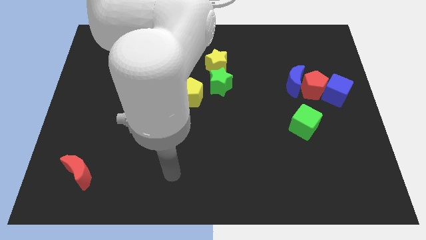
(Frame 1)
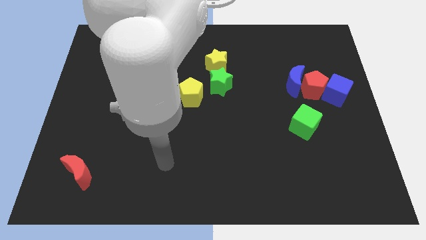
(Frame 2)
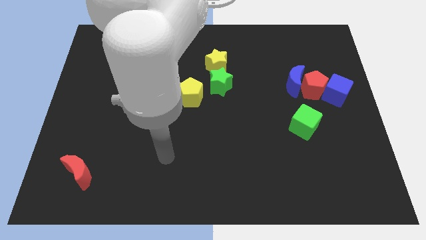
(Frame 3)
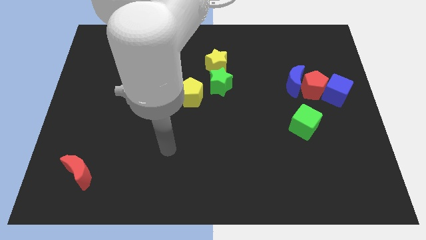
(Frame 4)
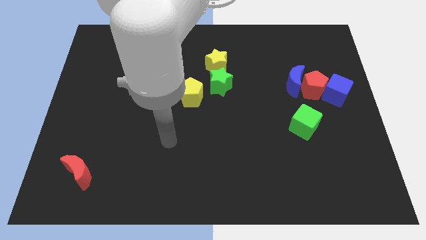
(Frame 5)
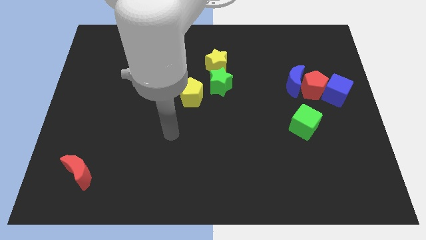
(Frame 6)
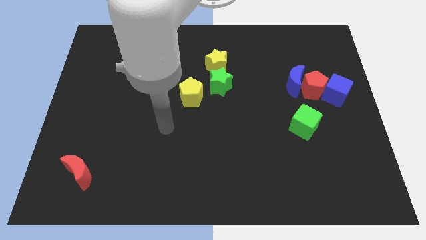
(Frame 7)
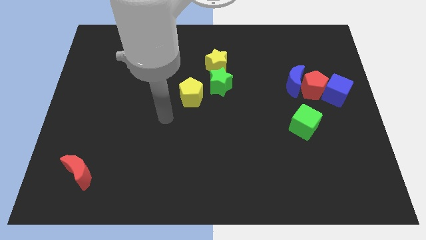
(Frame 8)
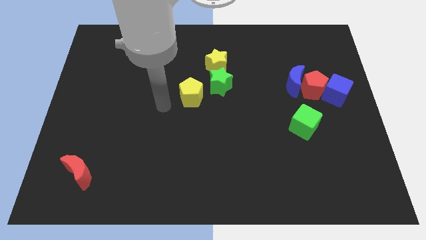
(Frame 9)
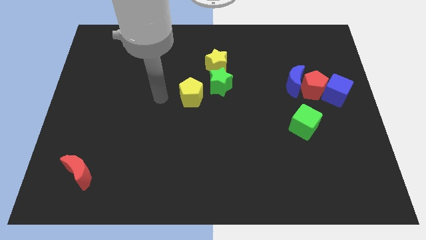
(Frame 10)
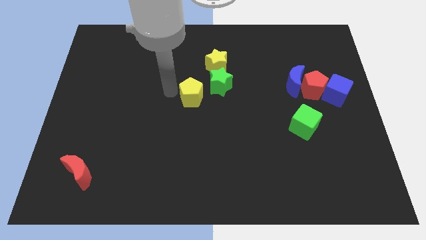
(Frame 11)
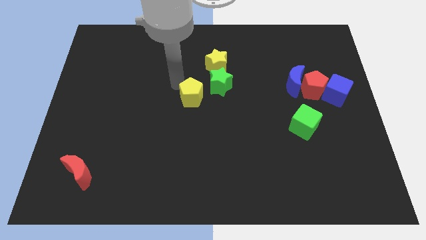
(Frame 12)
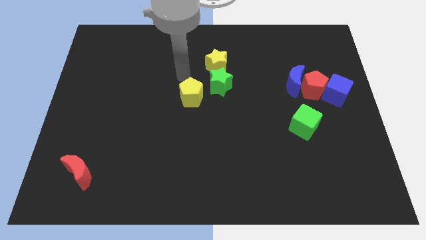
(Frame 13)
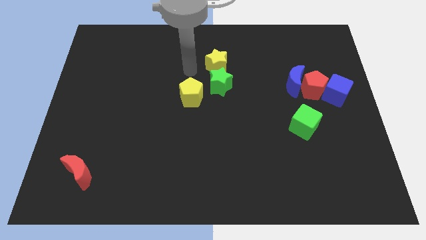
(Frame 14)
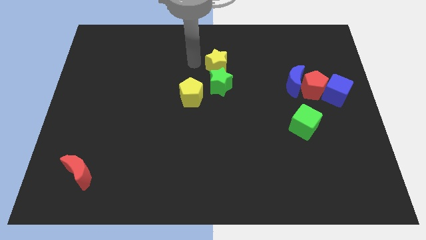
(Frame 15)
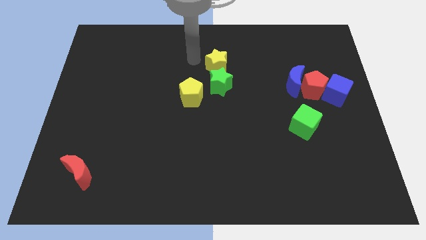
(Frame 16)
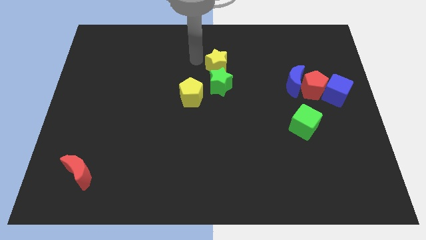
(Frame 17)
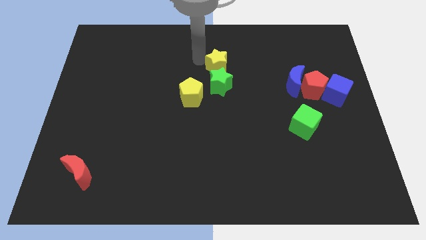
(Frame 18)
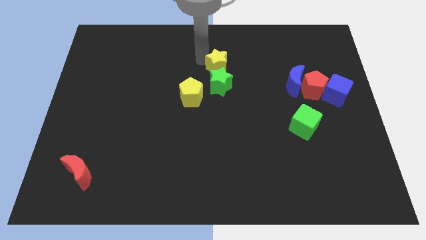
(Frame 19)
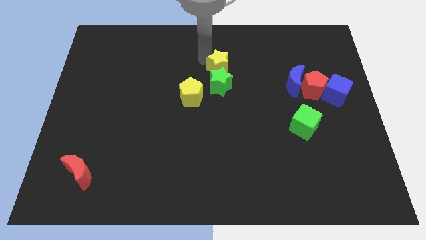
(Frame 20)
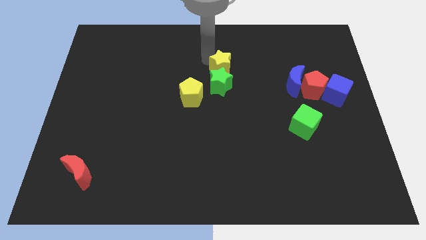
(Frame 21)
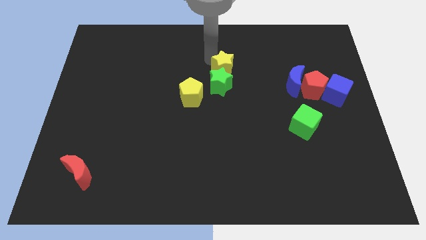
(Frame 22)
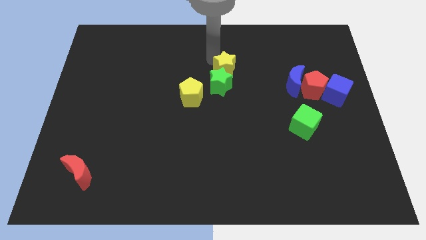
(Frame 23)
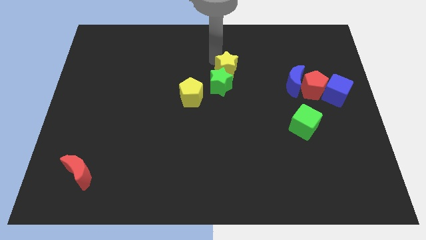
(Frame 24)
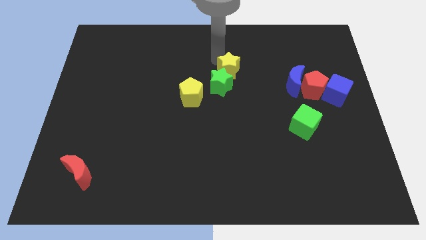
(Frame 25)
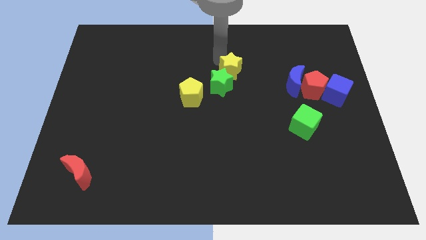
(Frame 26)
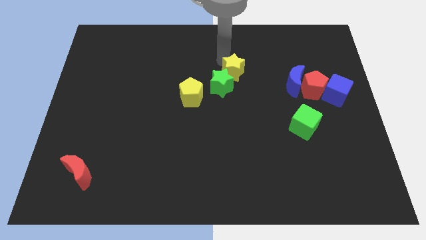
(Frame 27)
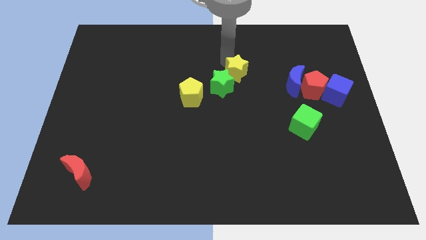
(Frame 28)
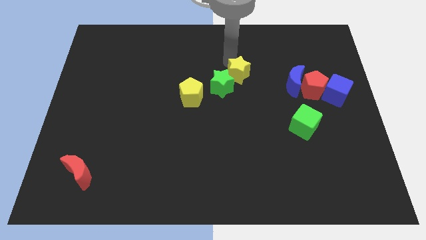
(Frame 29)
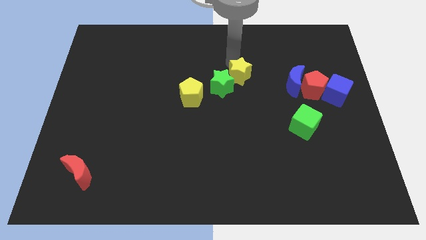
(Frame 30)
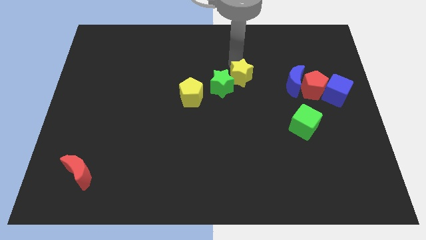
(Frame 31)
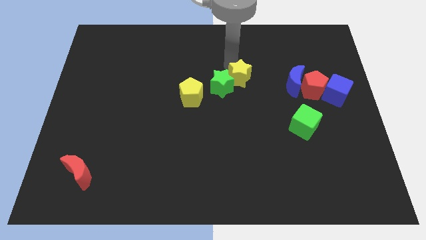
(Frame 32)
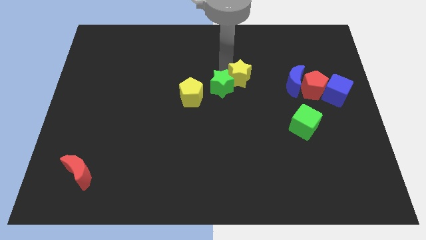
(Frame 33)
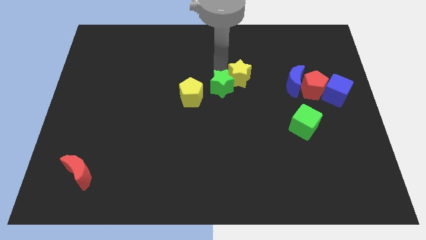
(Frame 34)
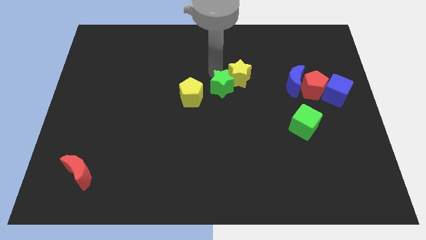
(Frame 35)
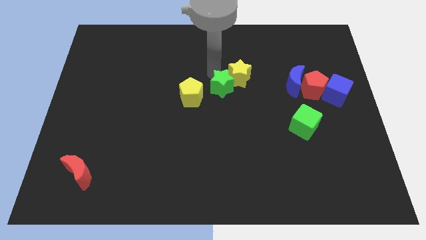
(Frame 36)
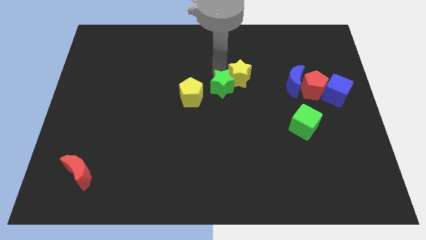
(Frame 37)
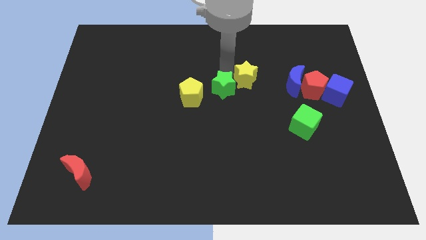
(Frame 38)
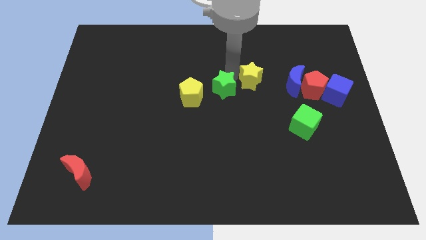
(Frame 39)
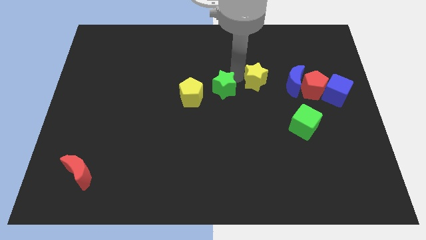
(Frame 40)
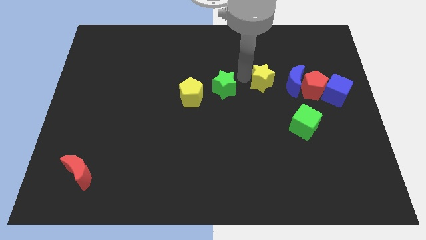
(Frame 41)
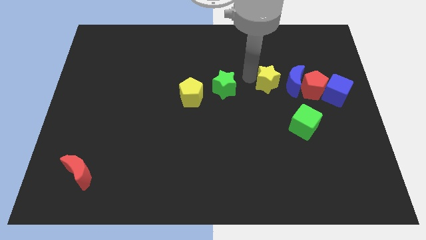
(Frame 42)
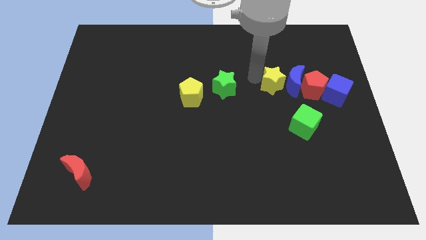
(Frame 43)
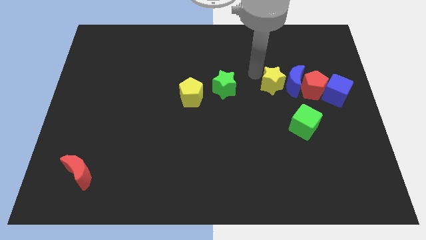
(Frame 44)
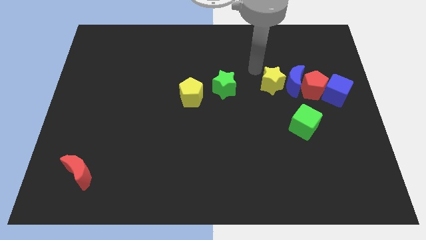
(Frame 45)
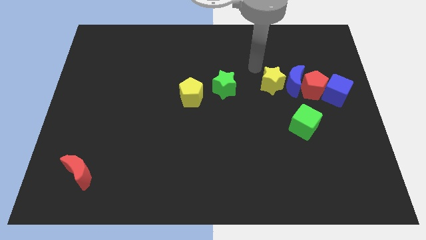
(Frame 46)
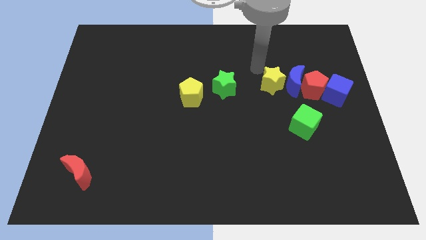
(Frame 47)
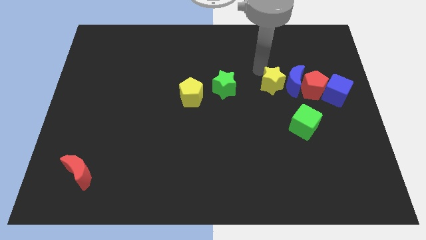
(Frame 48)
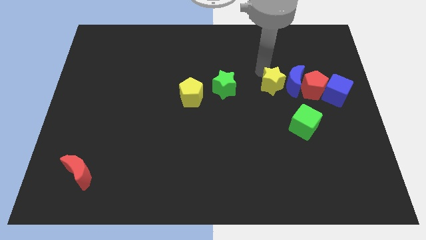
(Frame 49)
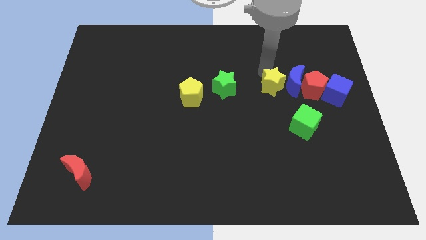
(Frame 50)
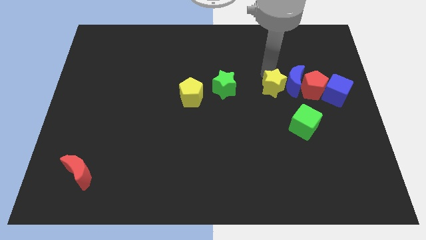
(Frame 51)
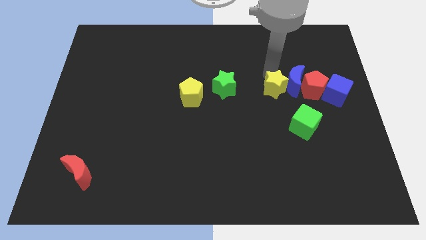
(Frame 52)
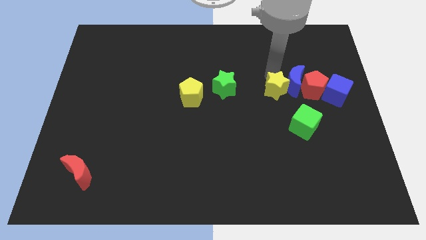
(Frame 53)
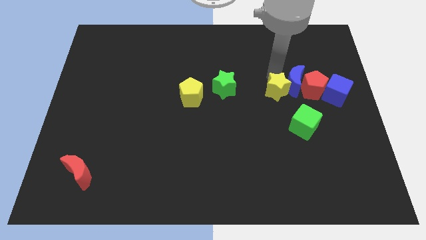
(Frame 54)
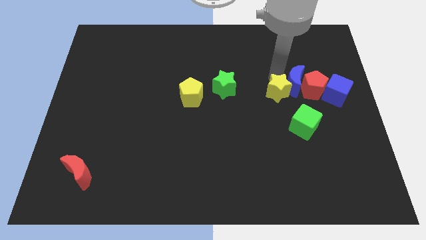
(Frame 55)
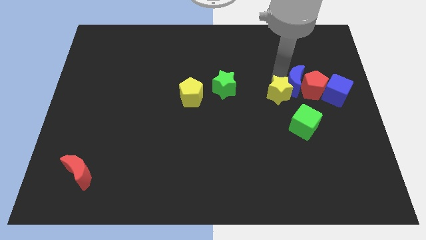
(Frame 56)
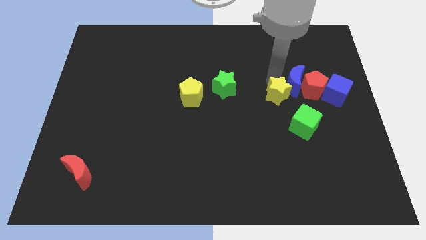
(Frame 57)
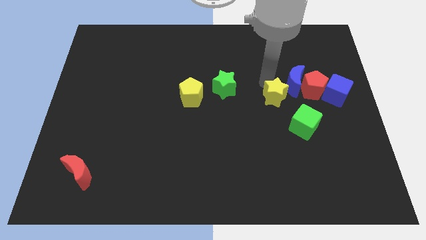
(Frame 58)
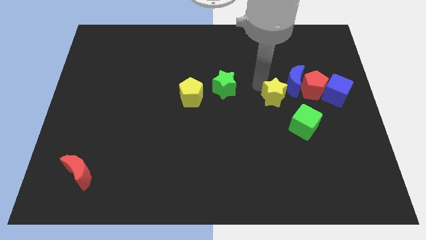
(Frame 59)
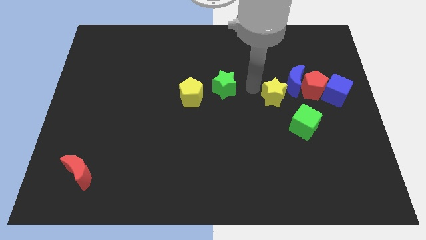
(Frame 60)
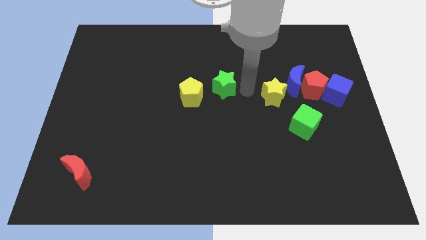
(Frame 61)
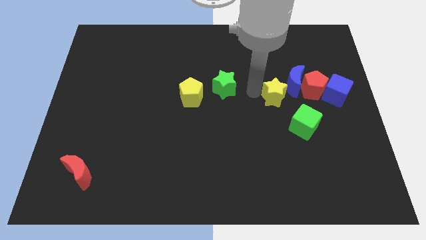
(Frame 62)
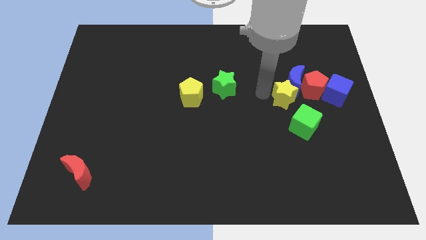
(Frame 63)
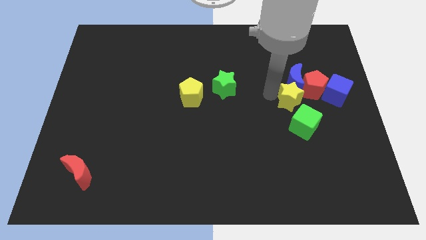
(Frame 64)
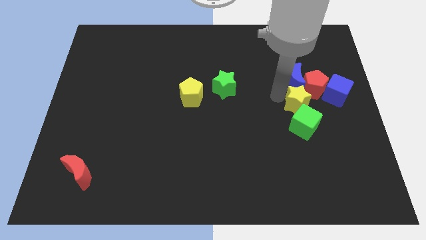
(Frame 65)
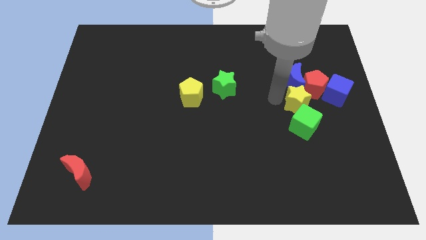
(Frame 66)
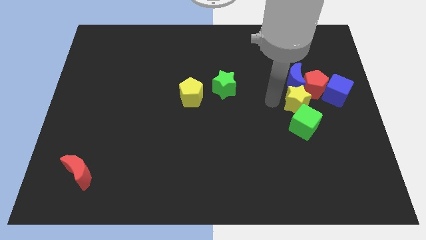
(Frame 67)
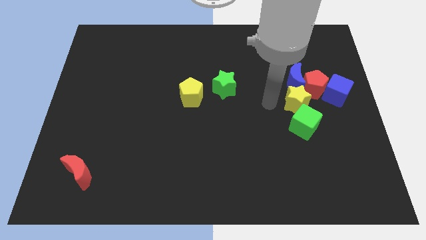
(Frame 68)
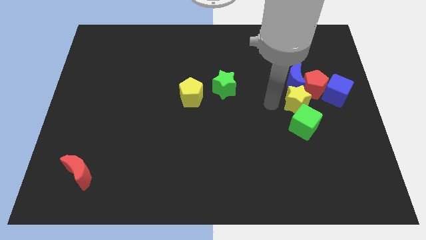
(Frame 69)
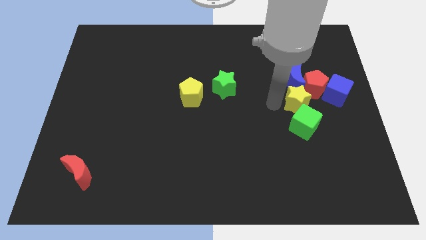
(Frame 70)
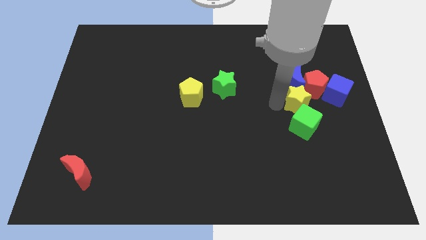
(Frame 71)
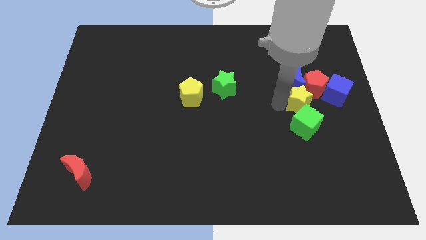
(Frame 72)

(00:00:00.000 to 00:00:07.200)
push the yellow star towards the red pentagon

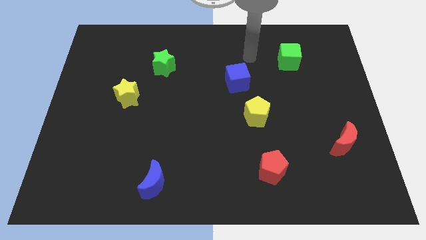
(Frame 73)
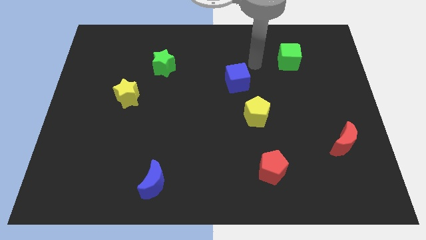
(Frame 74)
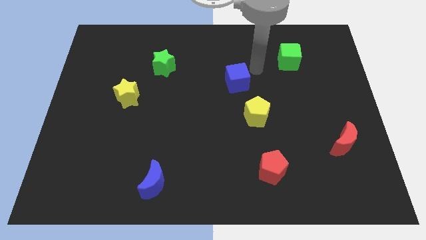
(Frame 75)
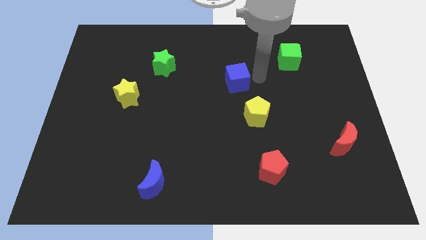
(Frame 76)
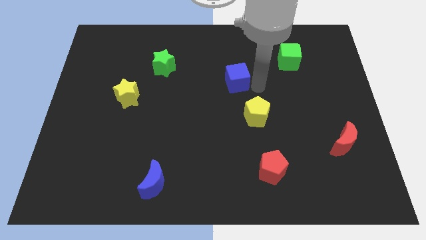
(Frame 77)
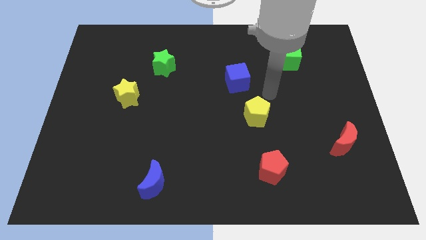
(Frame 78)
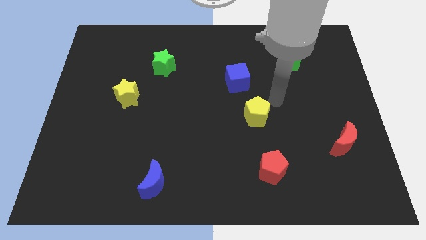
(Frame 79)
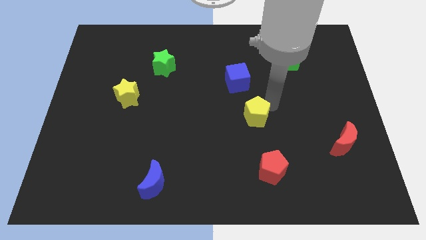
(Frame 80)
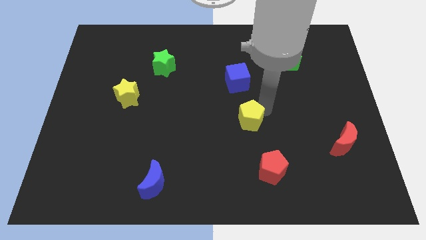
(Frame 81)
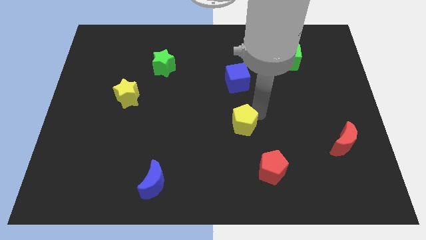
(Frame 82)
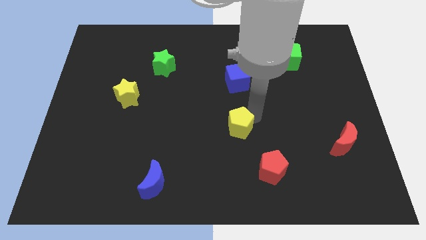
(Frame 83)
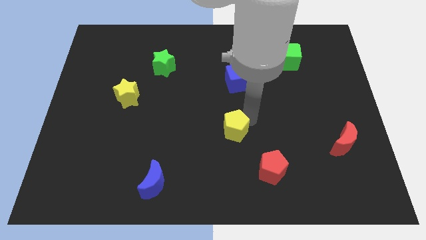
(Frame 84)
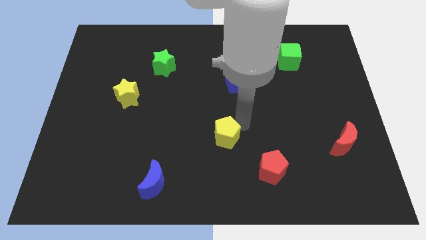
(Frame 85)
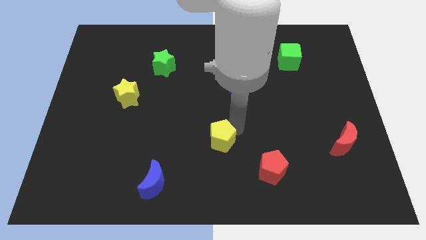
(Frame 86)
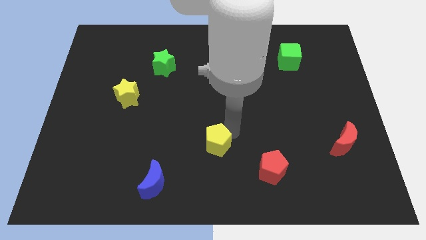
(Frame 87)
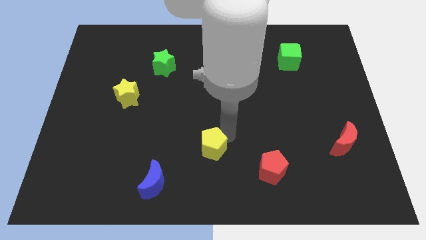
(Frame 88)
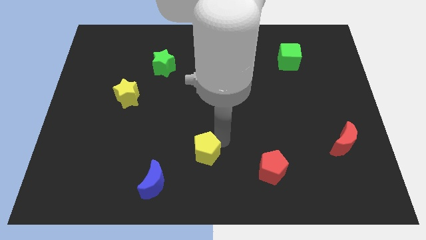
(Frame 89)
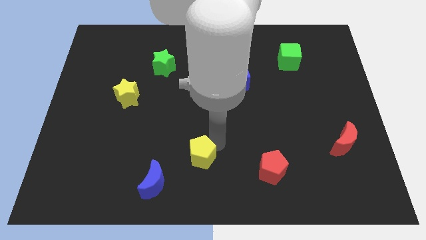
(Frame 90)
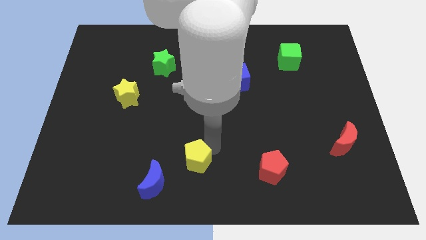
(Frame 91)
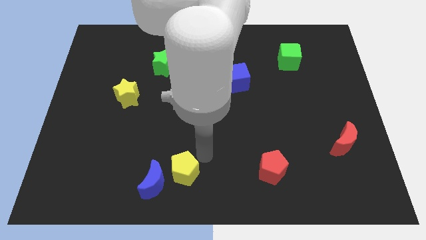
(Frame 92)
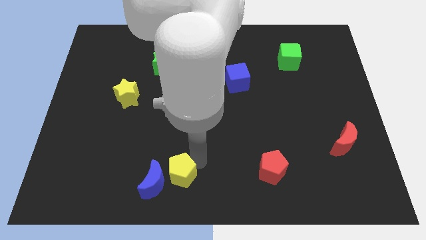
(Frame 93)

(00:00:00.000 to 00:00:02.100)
push the yellow pentagon to the blue moon
